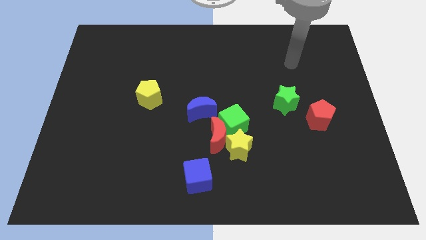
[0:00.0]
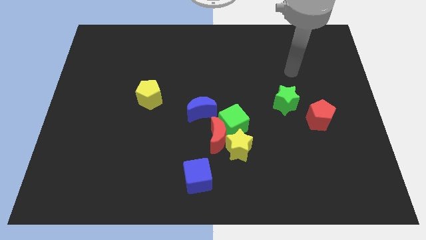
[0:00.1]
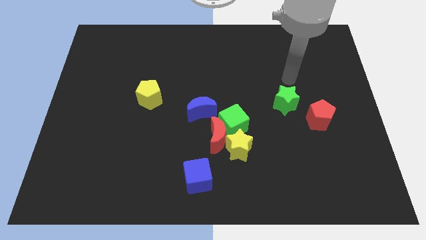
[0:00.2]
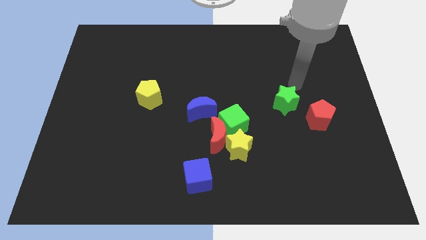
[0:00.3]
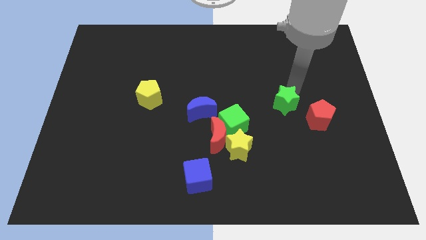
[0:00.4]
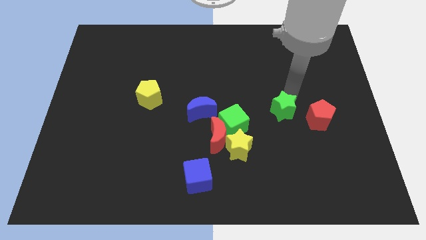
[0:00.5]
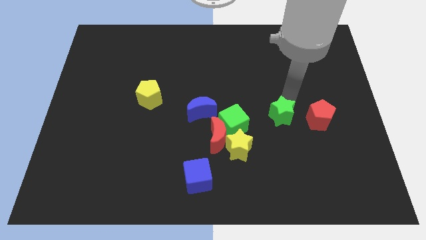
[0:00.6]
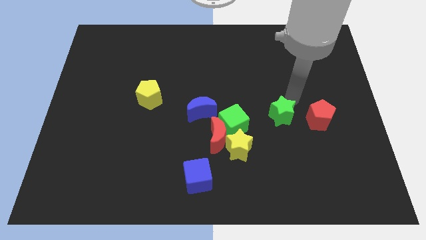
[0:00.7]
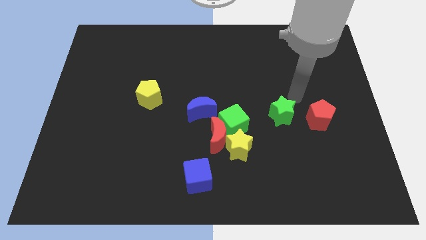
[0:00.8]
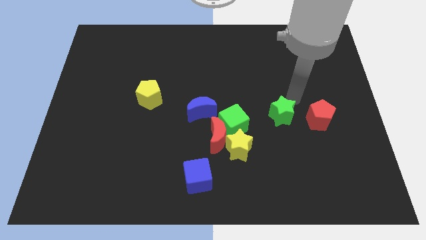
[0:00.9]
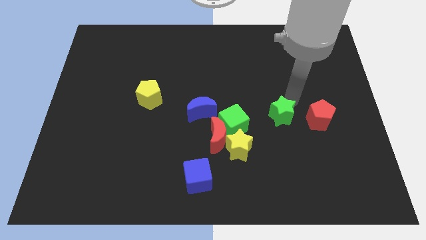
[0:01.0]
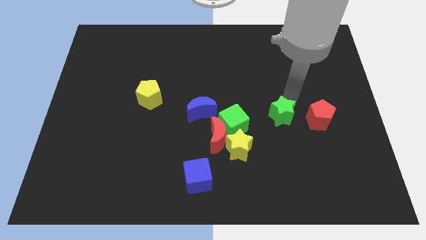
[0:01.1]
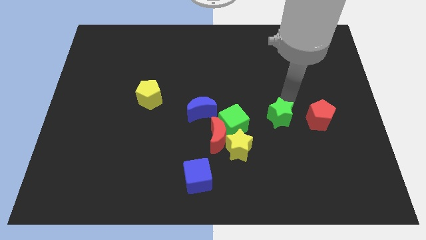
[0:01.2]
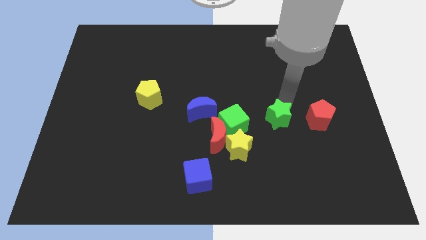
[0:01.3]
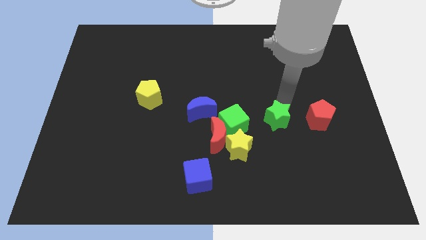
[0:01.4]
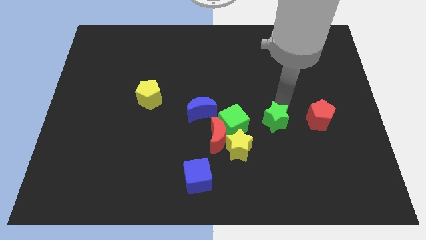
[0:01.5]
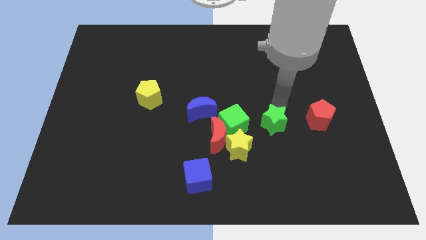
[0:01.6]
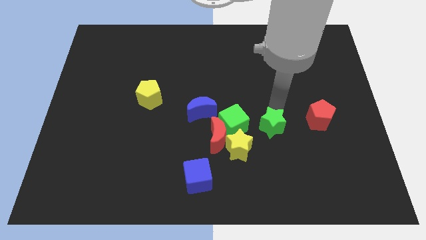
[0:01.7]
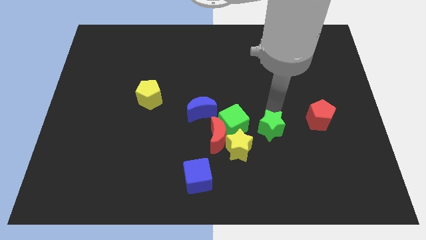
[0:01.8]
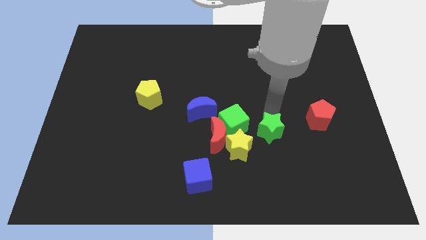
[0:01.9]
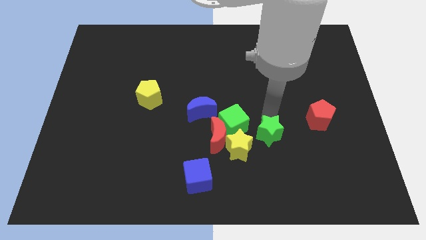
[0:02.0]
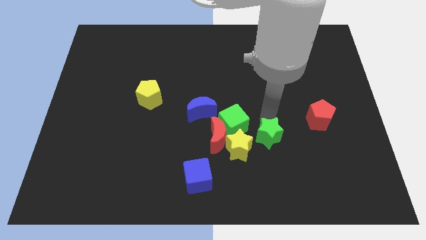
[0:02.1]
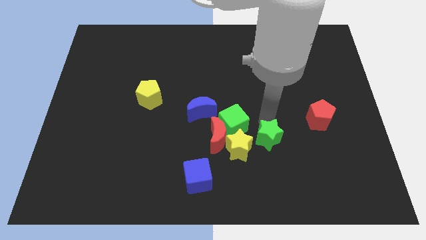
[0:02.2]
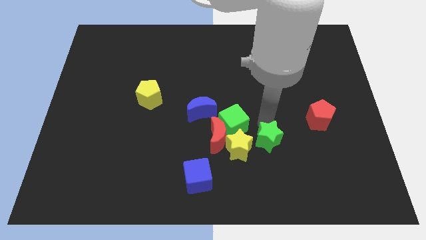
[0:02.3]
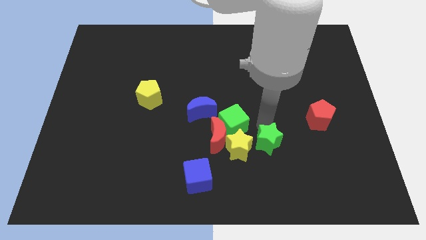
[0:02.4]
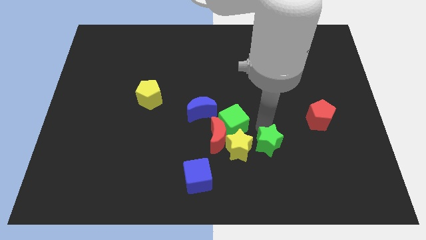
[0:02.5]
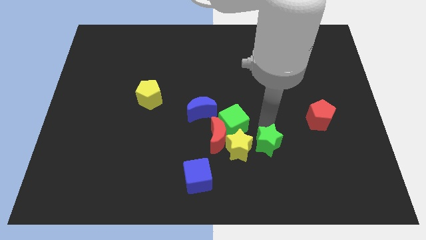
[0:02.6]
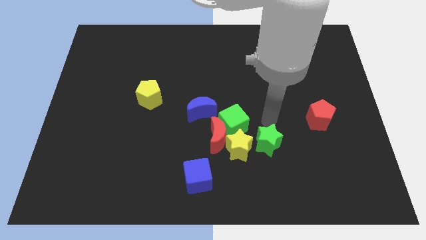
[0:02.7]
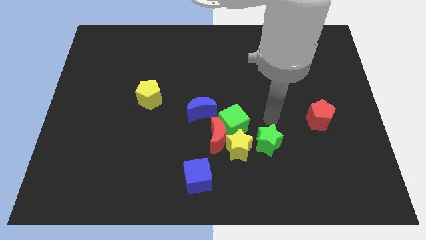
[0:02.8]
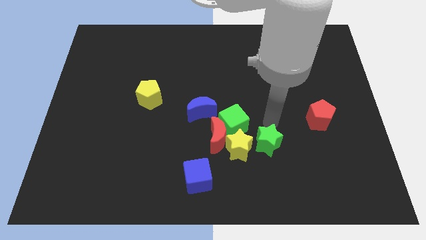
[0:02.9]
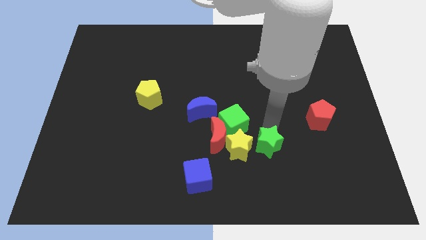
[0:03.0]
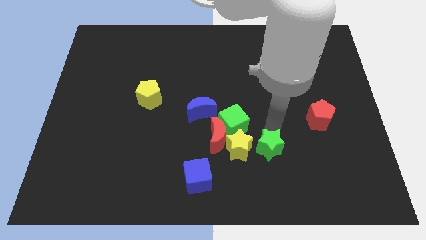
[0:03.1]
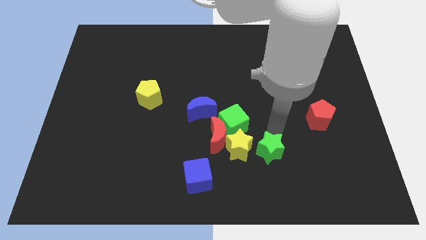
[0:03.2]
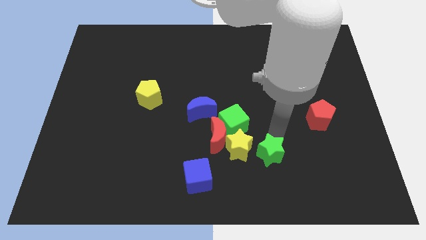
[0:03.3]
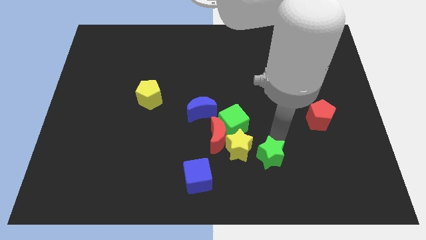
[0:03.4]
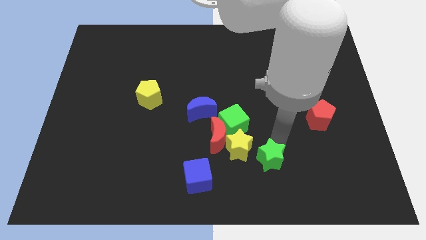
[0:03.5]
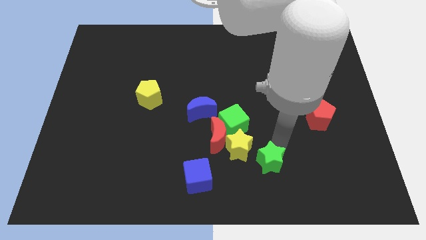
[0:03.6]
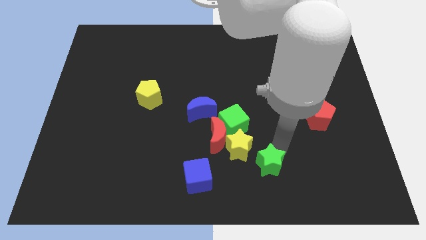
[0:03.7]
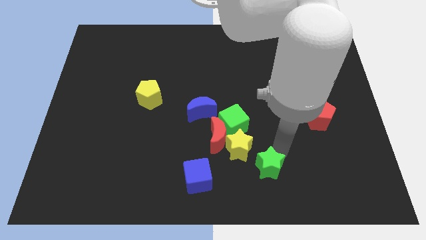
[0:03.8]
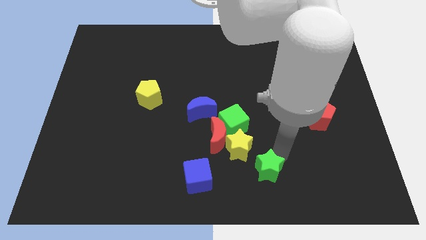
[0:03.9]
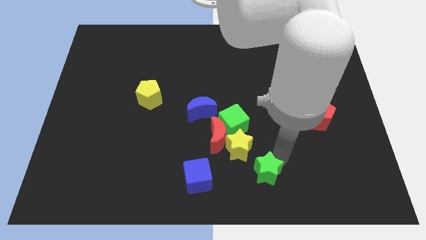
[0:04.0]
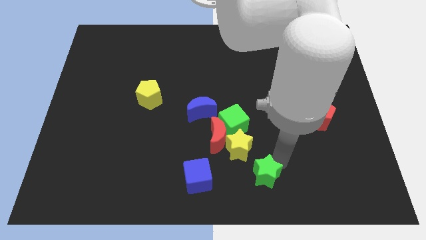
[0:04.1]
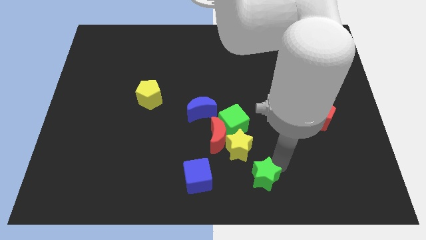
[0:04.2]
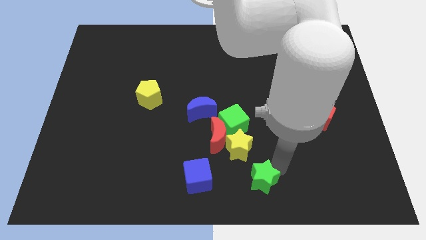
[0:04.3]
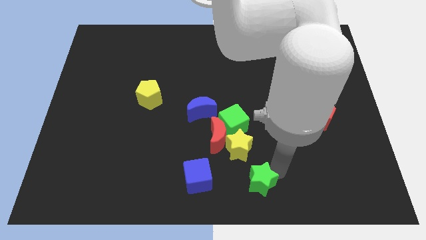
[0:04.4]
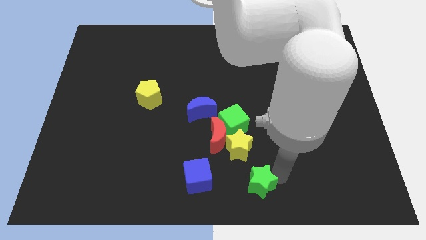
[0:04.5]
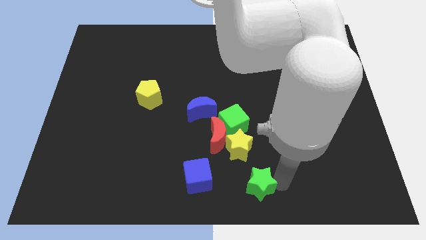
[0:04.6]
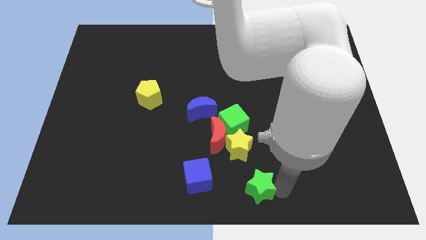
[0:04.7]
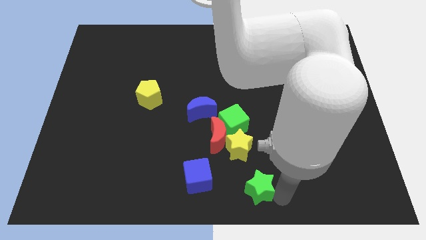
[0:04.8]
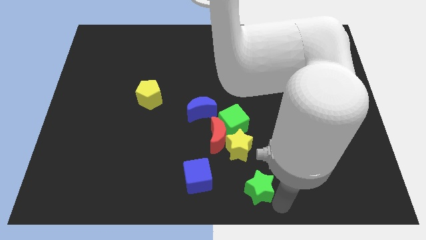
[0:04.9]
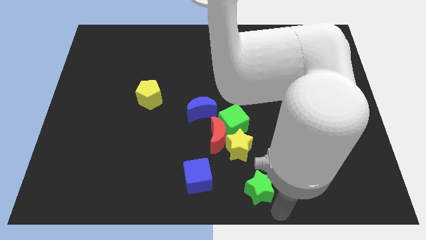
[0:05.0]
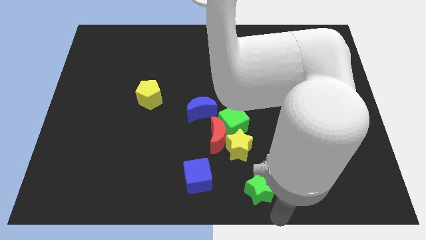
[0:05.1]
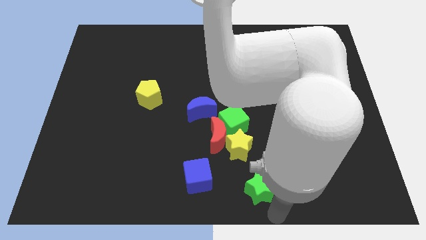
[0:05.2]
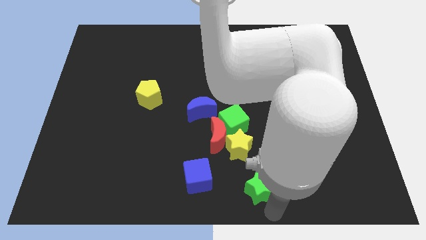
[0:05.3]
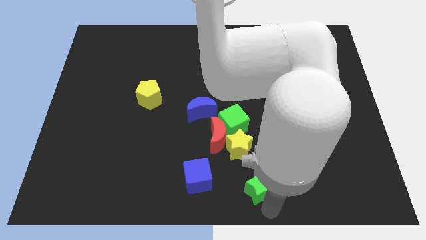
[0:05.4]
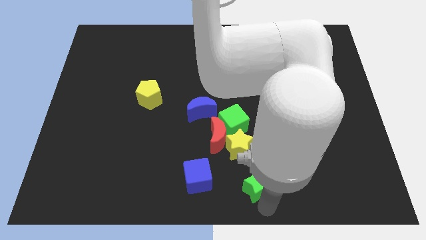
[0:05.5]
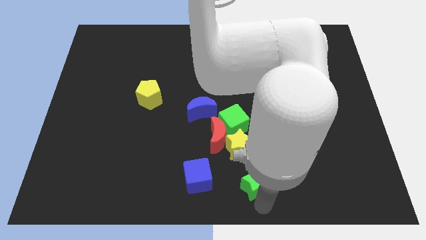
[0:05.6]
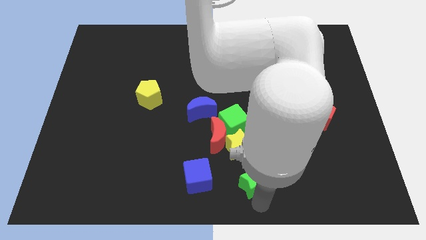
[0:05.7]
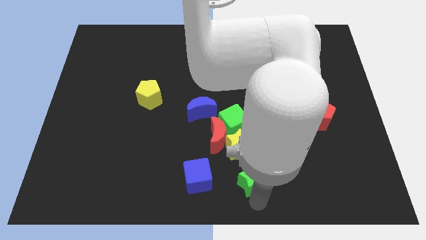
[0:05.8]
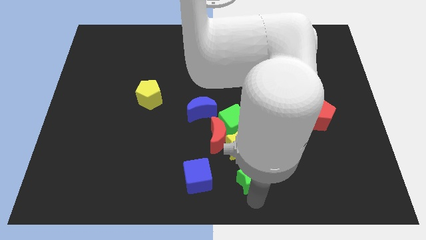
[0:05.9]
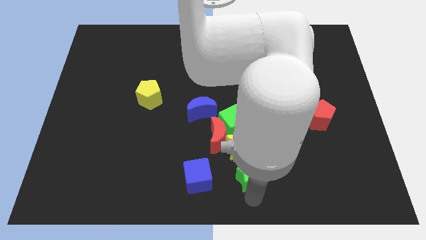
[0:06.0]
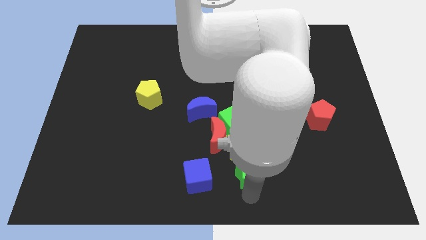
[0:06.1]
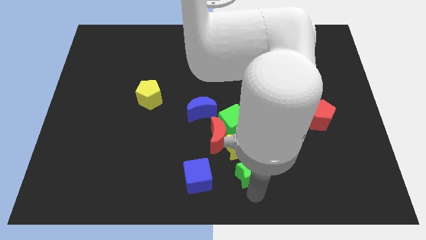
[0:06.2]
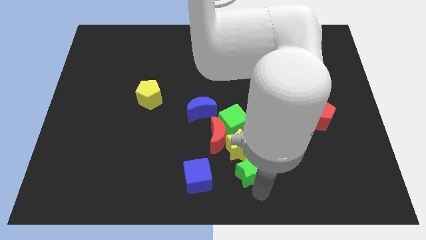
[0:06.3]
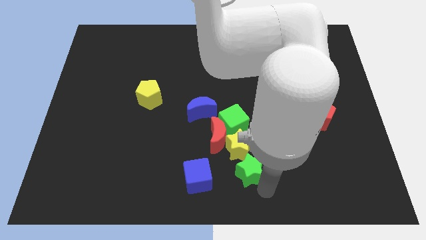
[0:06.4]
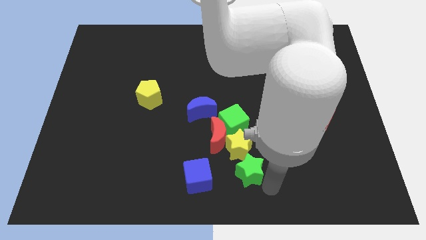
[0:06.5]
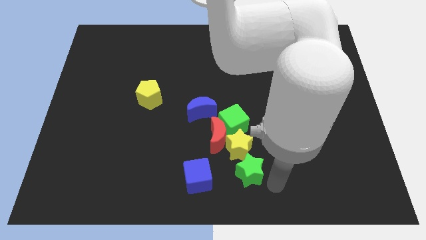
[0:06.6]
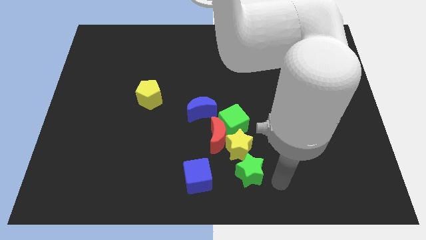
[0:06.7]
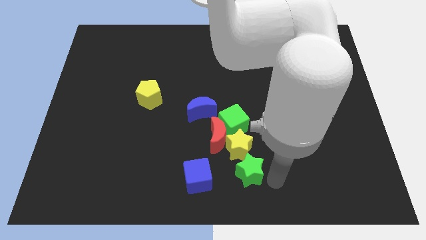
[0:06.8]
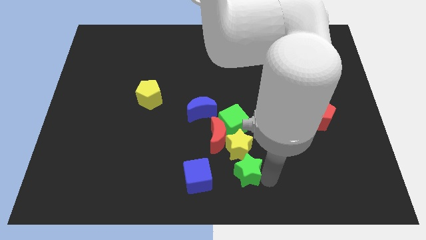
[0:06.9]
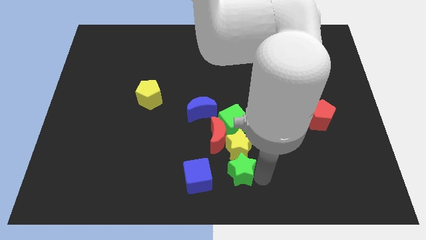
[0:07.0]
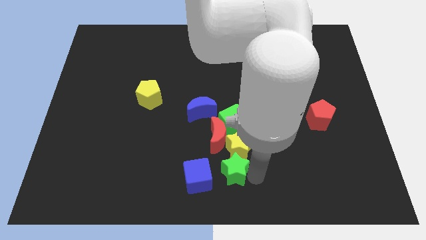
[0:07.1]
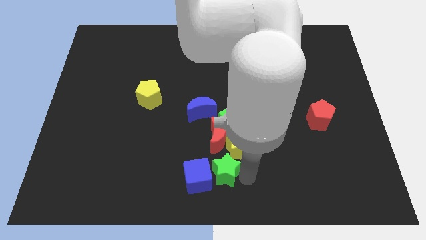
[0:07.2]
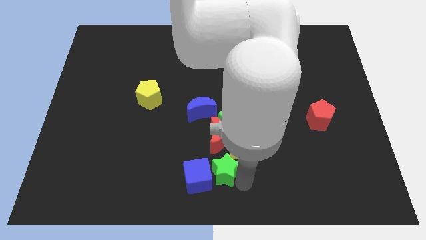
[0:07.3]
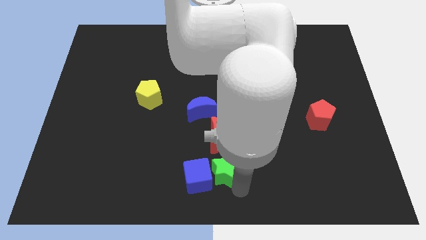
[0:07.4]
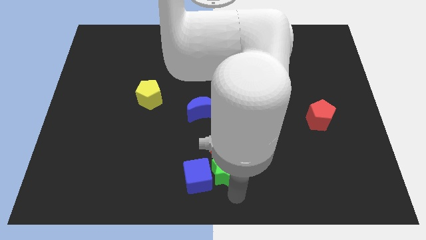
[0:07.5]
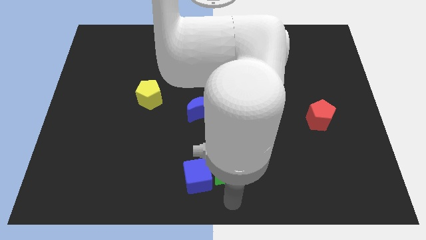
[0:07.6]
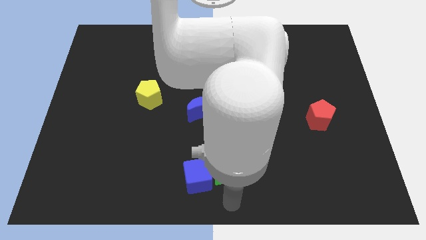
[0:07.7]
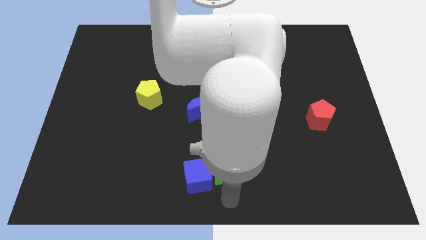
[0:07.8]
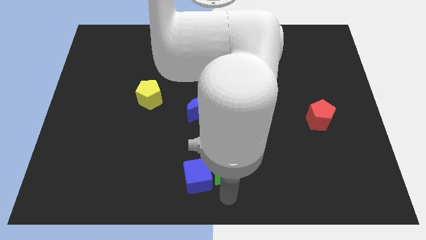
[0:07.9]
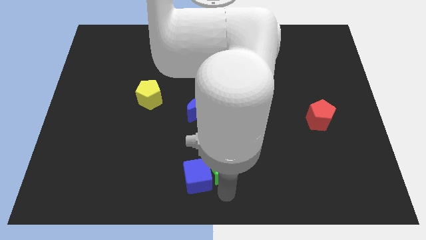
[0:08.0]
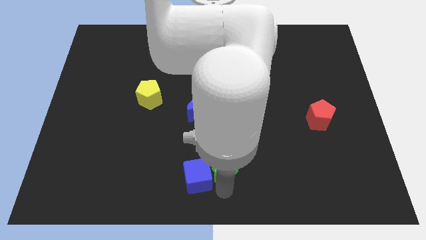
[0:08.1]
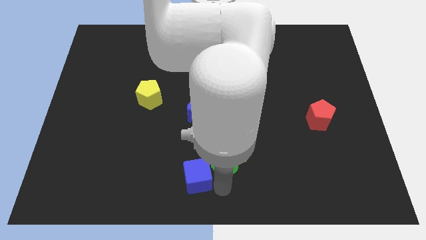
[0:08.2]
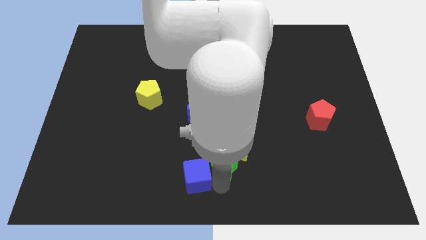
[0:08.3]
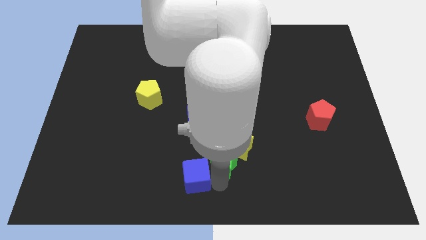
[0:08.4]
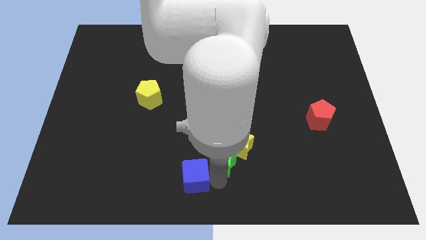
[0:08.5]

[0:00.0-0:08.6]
put the green star close to the red moon
